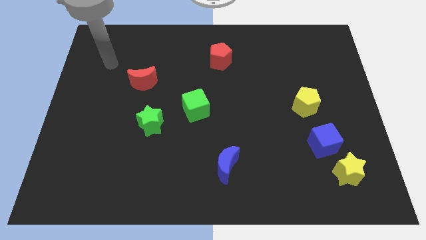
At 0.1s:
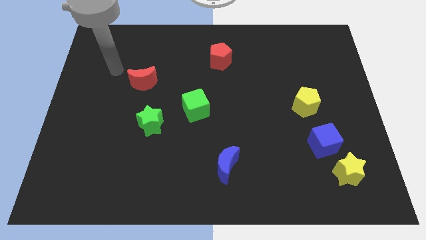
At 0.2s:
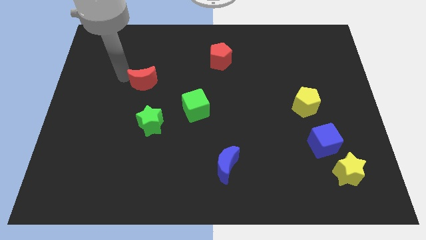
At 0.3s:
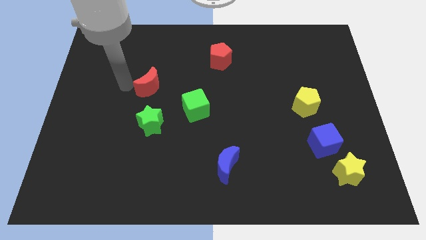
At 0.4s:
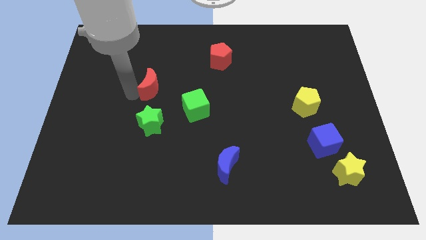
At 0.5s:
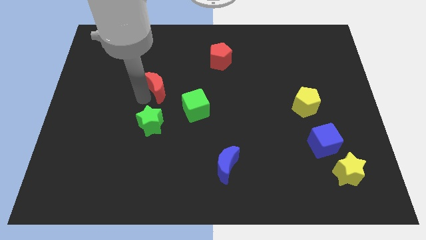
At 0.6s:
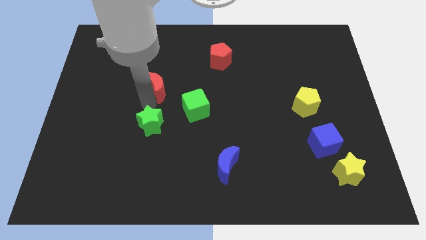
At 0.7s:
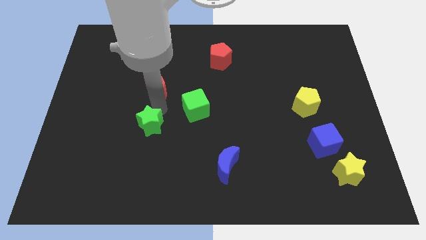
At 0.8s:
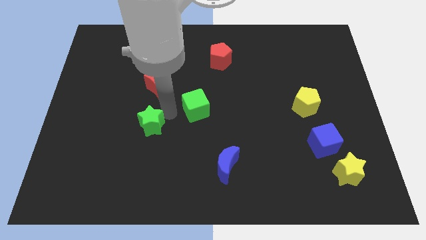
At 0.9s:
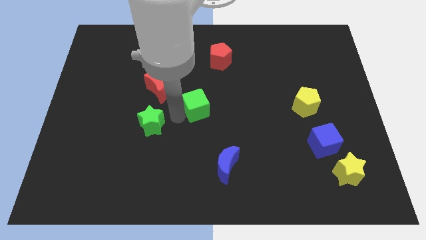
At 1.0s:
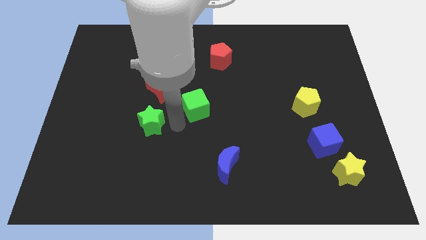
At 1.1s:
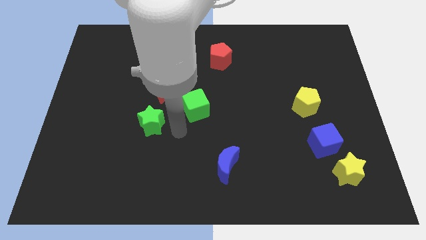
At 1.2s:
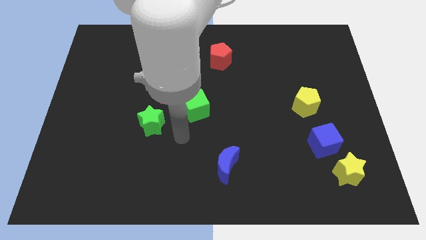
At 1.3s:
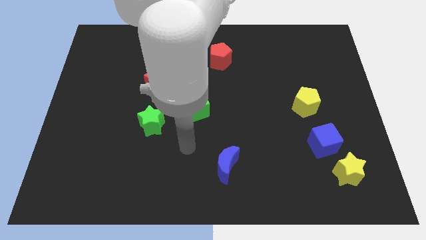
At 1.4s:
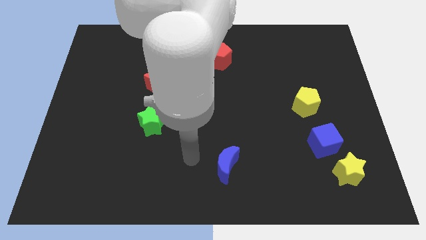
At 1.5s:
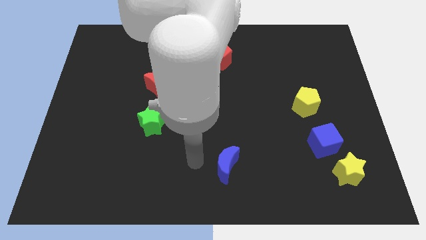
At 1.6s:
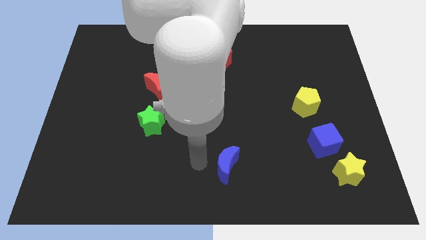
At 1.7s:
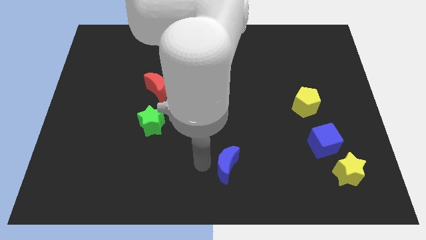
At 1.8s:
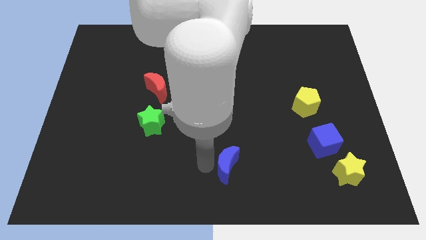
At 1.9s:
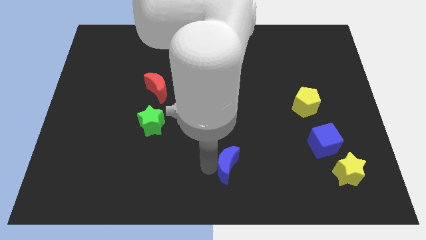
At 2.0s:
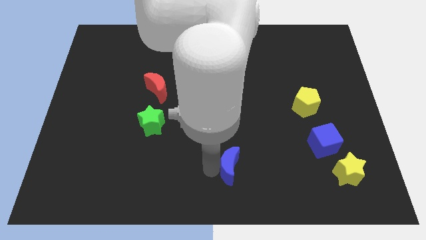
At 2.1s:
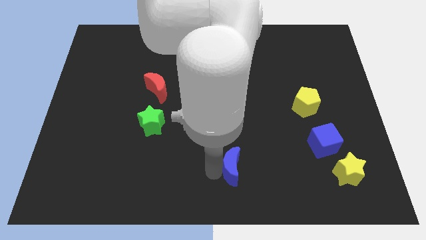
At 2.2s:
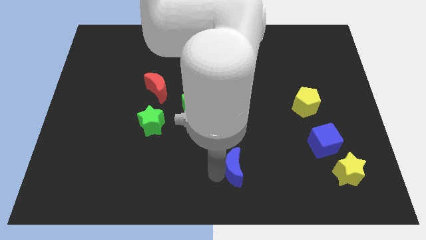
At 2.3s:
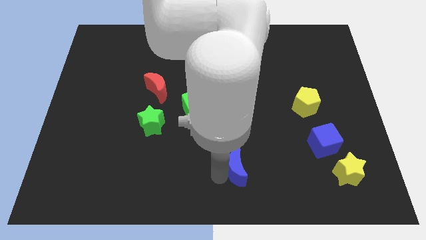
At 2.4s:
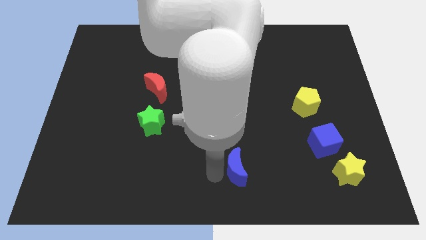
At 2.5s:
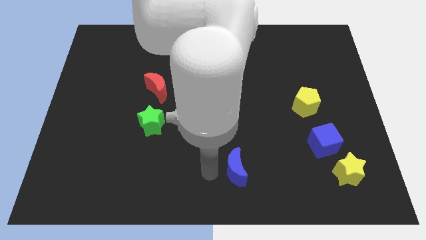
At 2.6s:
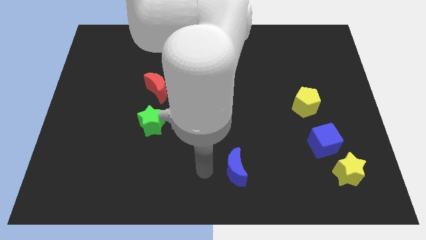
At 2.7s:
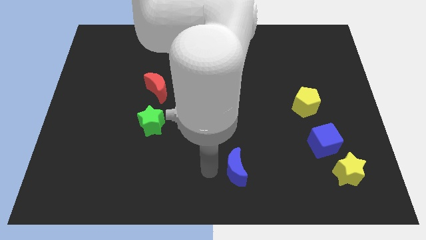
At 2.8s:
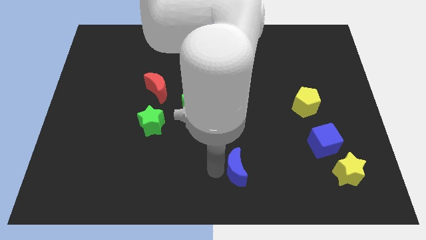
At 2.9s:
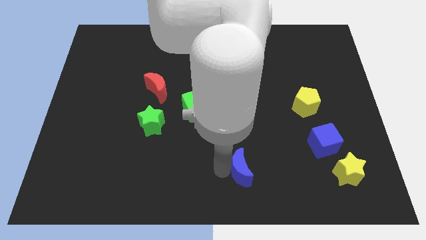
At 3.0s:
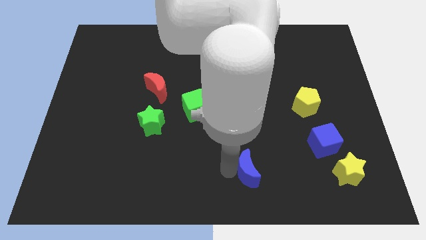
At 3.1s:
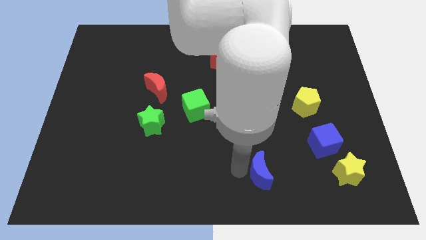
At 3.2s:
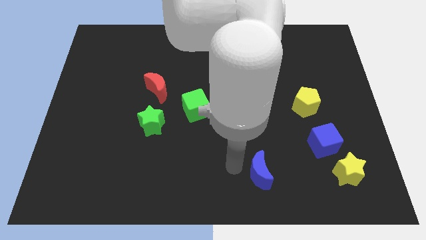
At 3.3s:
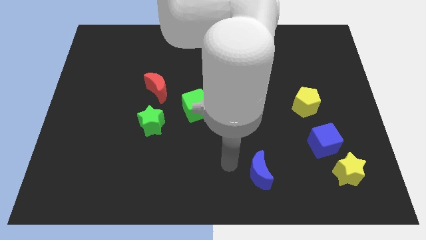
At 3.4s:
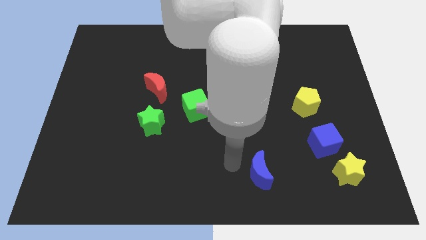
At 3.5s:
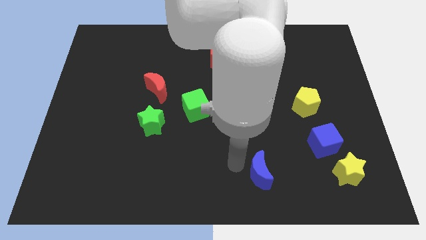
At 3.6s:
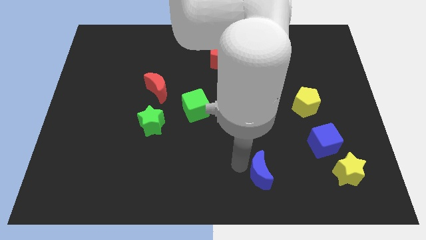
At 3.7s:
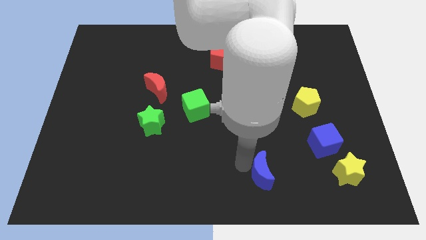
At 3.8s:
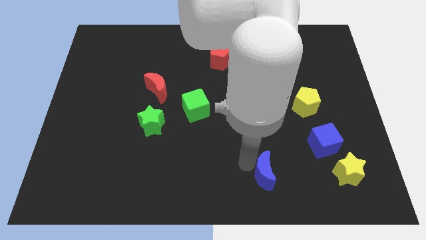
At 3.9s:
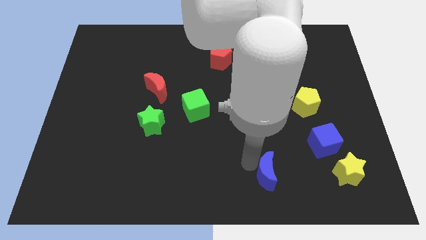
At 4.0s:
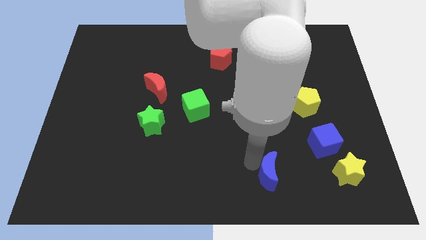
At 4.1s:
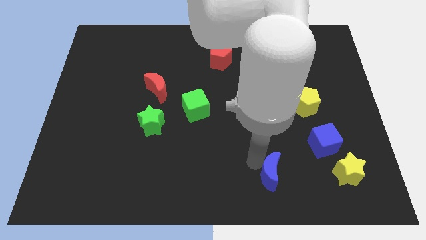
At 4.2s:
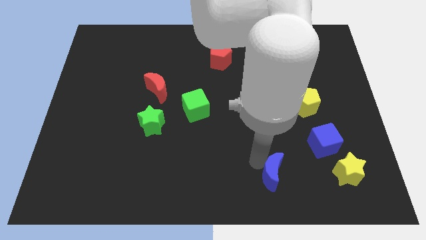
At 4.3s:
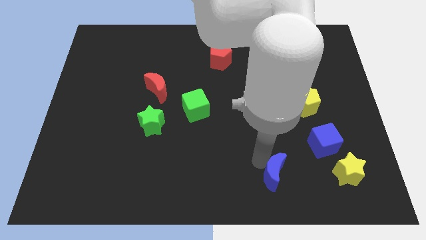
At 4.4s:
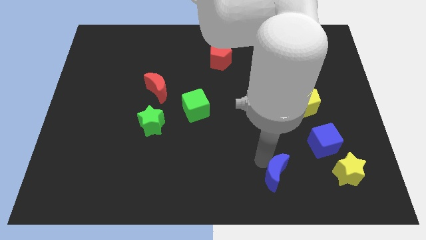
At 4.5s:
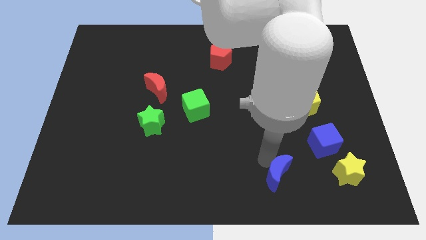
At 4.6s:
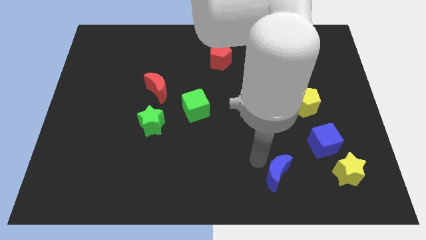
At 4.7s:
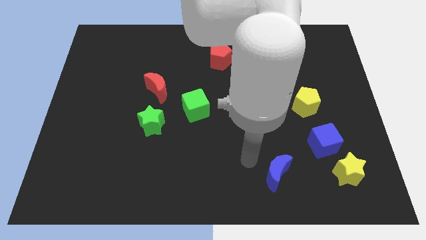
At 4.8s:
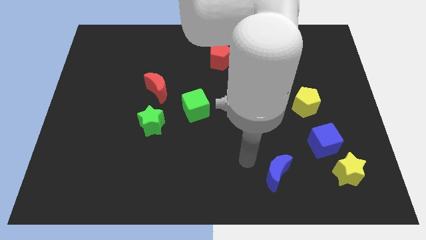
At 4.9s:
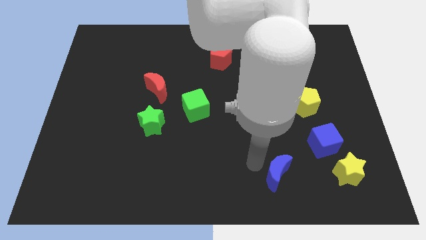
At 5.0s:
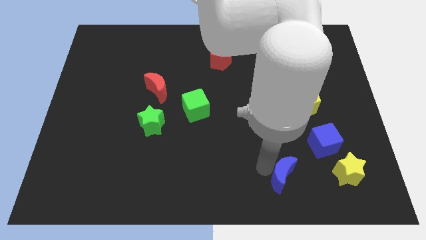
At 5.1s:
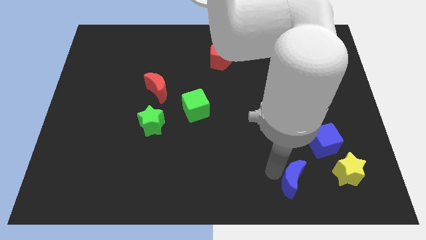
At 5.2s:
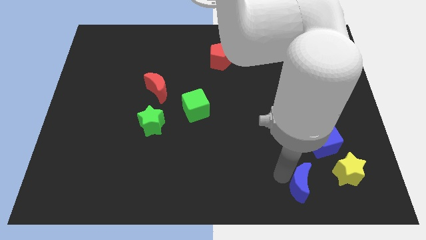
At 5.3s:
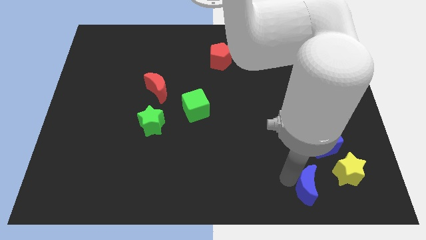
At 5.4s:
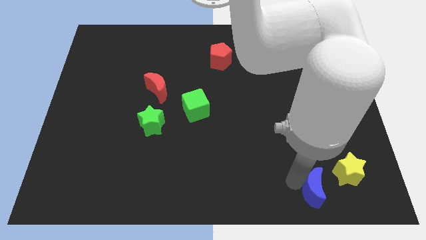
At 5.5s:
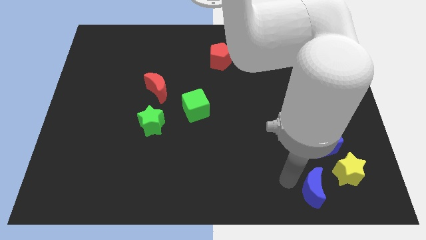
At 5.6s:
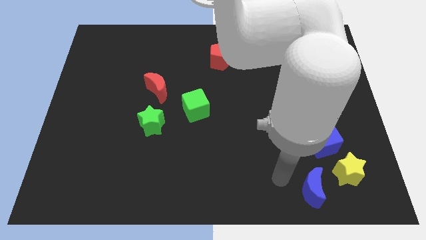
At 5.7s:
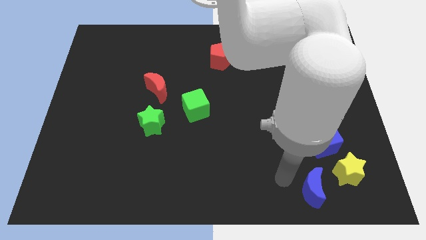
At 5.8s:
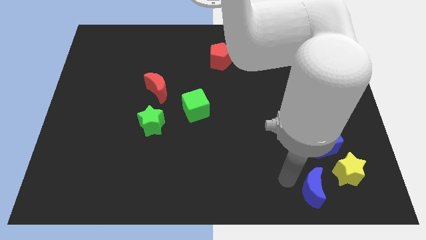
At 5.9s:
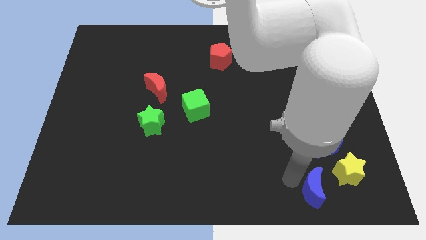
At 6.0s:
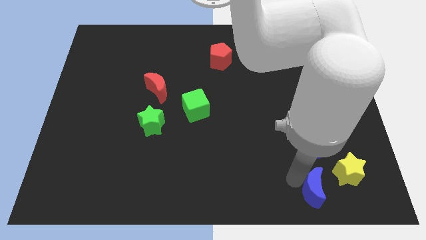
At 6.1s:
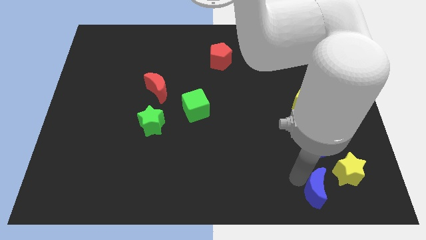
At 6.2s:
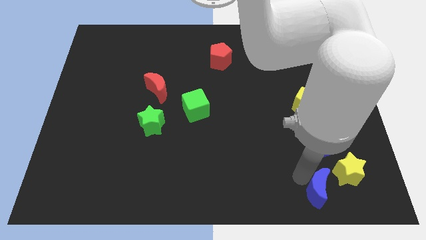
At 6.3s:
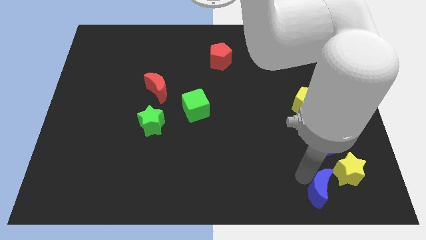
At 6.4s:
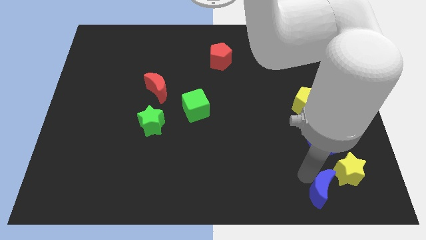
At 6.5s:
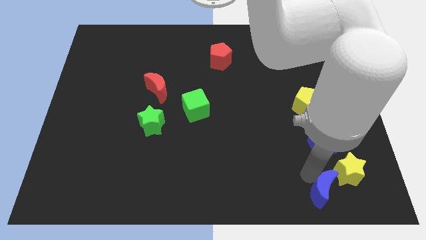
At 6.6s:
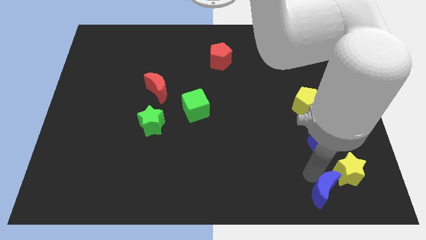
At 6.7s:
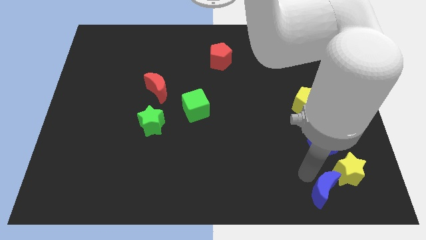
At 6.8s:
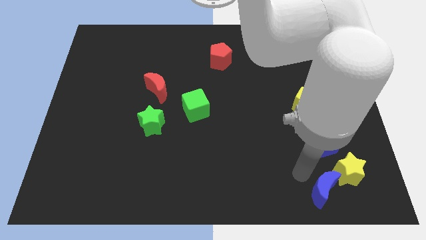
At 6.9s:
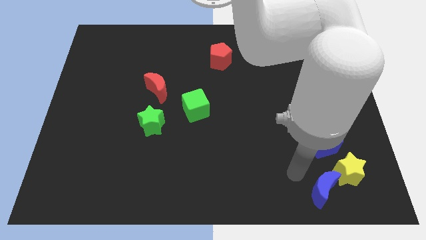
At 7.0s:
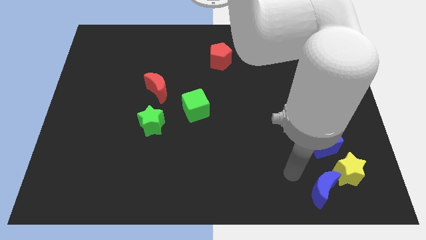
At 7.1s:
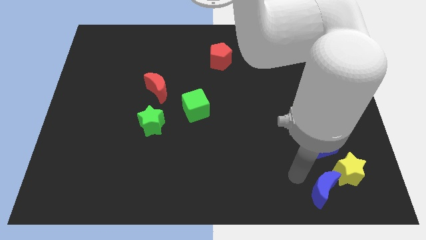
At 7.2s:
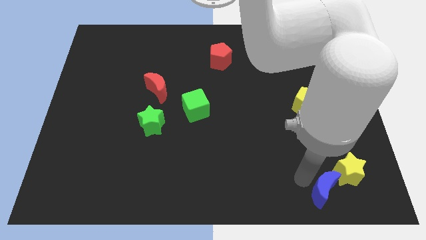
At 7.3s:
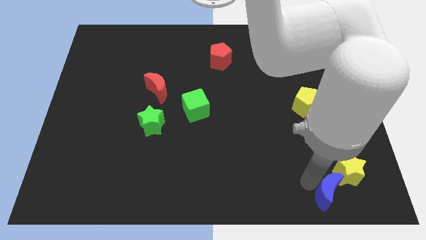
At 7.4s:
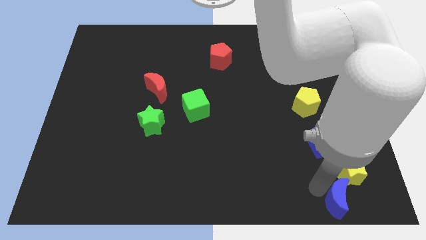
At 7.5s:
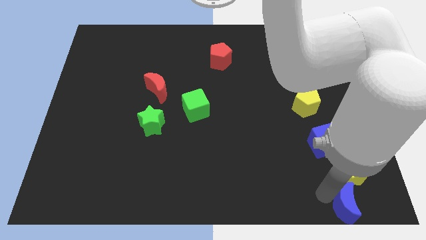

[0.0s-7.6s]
put the blue moon to the bottom right corner
